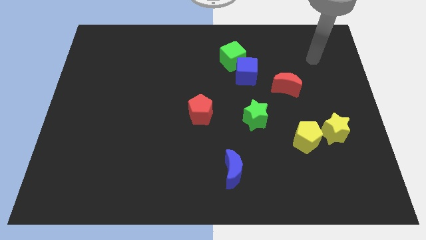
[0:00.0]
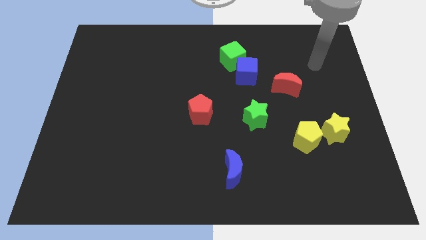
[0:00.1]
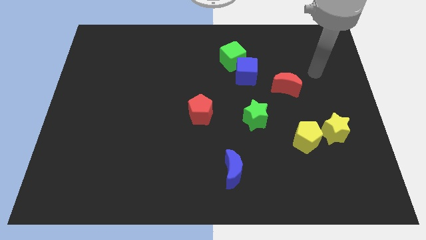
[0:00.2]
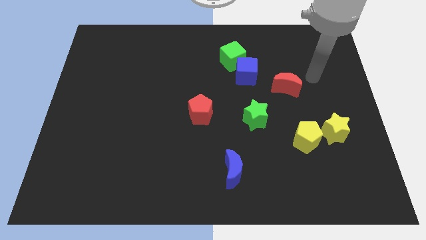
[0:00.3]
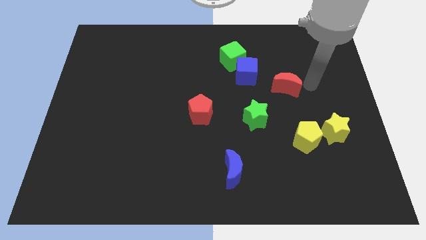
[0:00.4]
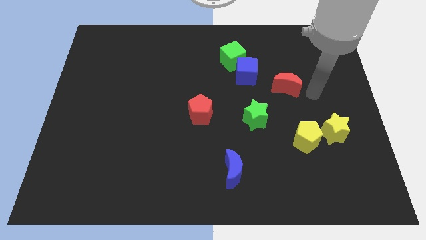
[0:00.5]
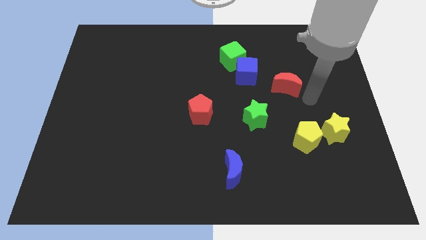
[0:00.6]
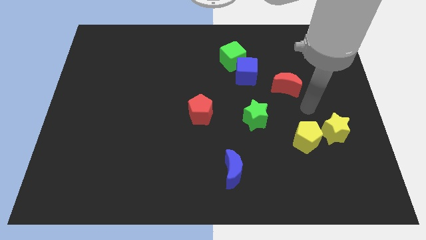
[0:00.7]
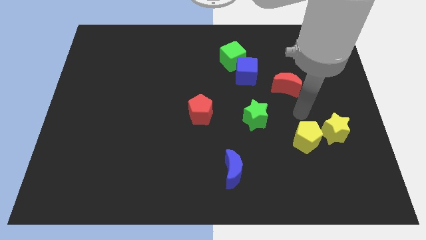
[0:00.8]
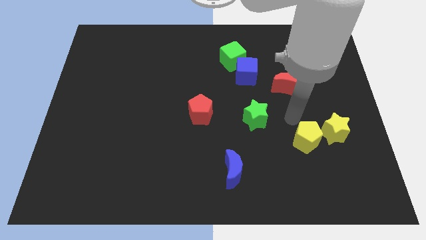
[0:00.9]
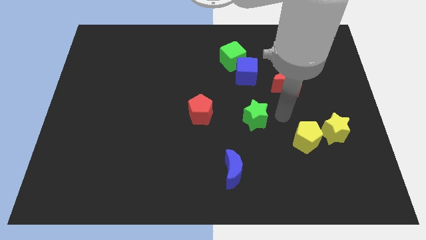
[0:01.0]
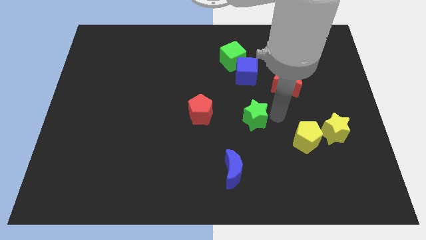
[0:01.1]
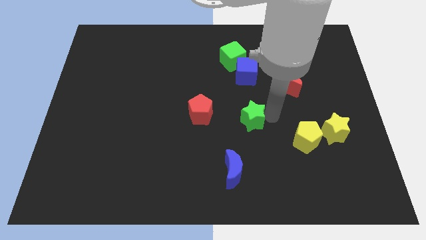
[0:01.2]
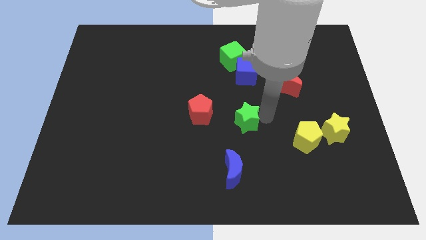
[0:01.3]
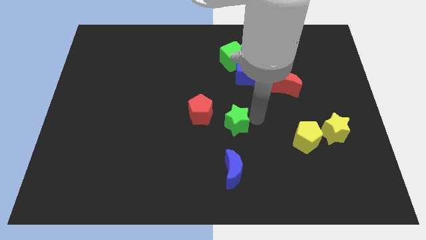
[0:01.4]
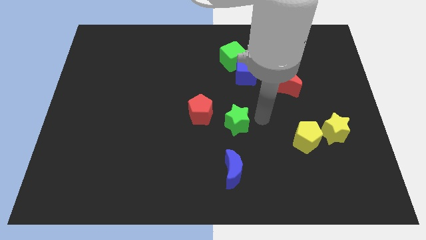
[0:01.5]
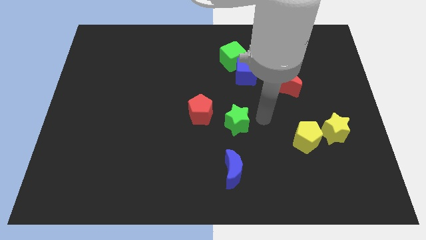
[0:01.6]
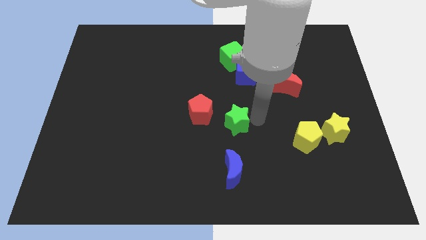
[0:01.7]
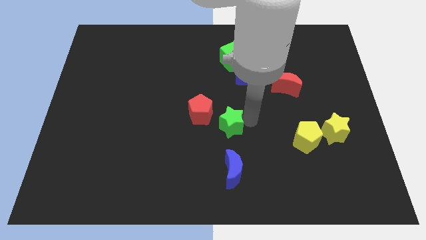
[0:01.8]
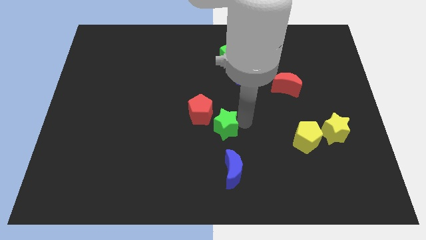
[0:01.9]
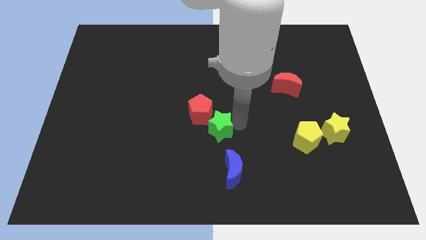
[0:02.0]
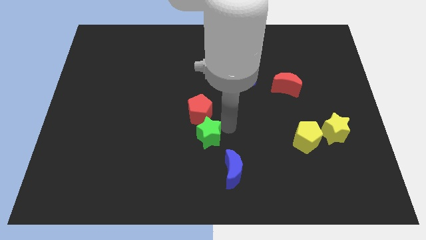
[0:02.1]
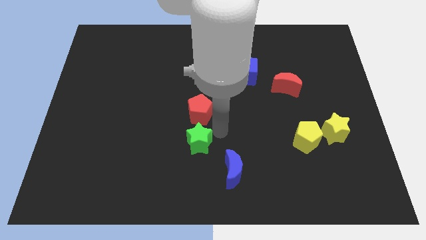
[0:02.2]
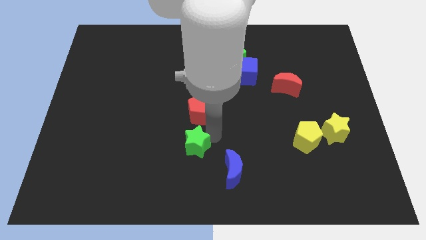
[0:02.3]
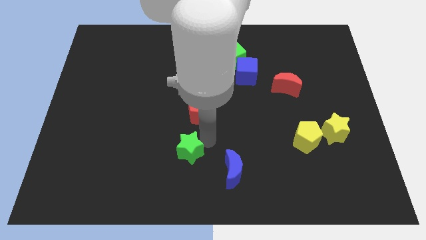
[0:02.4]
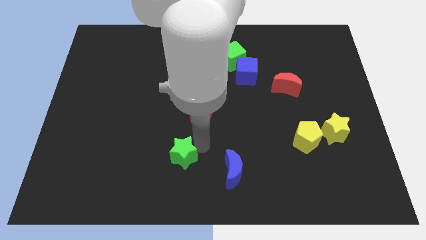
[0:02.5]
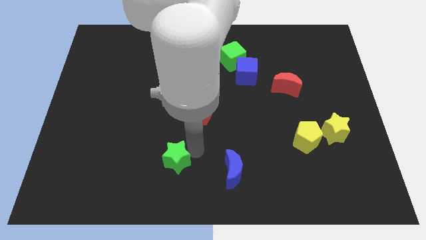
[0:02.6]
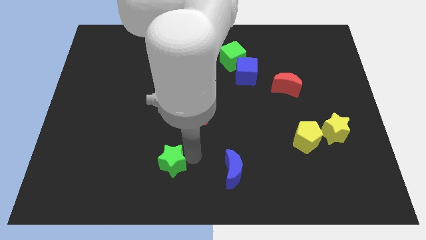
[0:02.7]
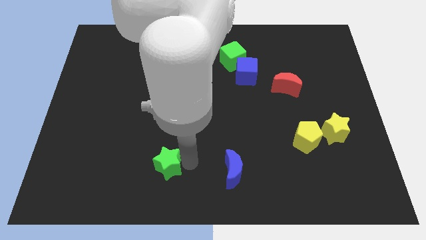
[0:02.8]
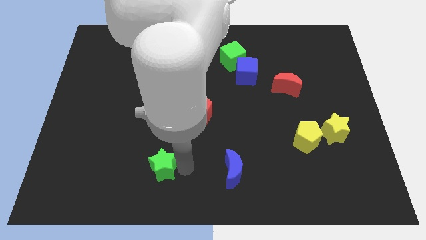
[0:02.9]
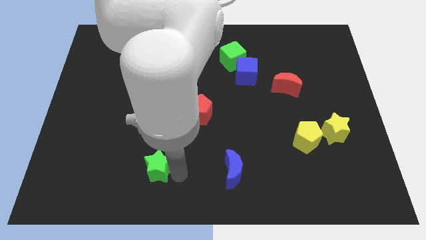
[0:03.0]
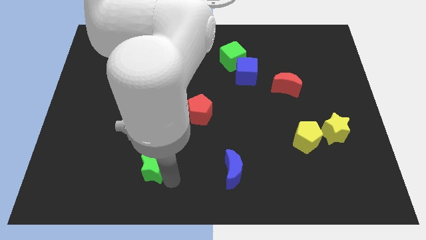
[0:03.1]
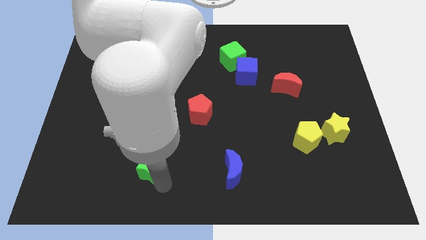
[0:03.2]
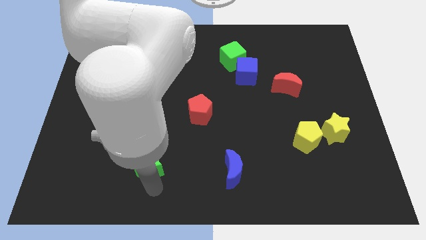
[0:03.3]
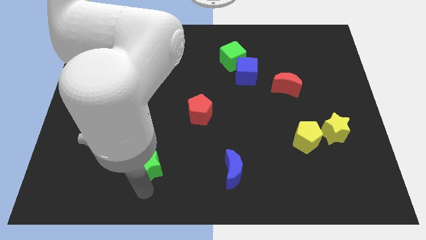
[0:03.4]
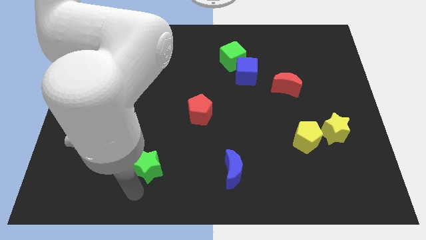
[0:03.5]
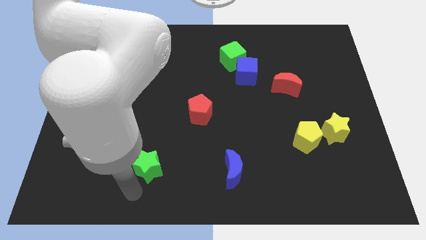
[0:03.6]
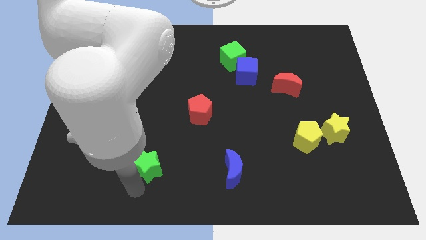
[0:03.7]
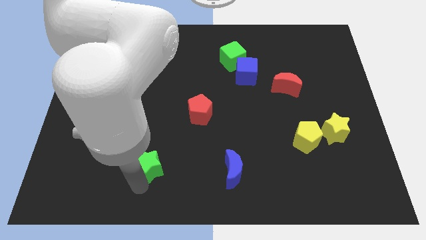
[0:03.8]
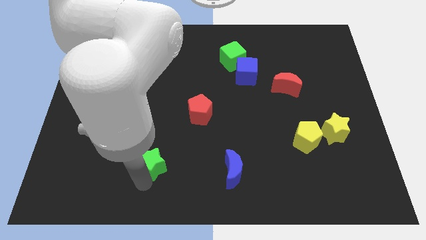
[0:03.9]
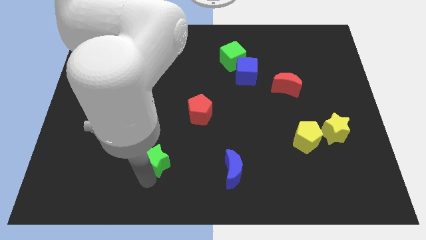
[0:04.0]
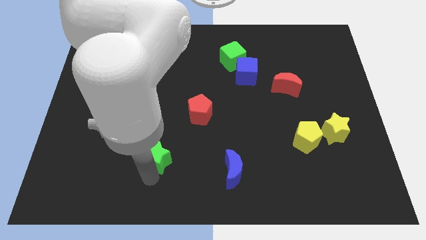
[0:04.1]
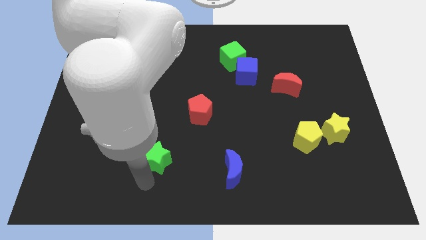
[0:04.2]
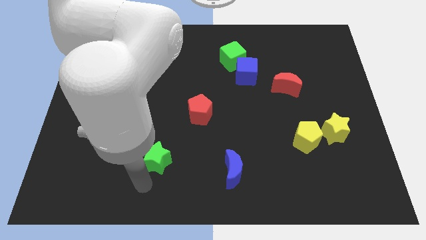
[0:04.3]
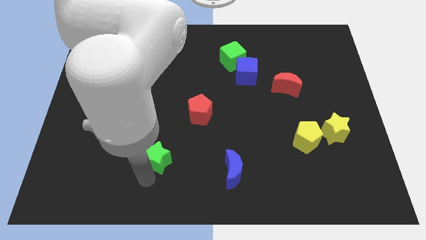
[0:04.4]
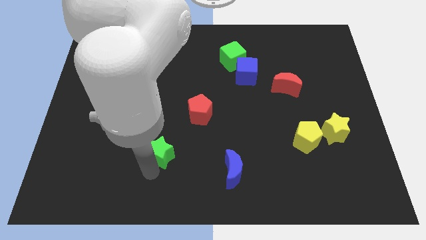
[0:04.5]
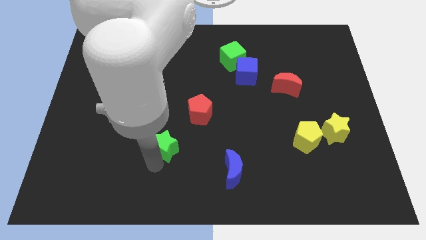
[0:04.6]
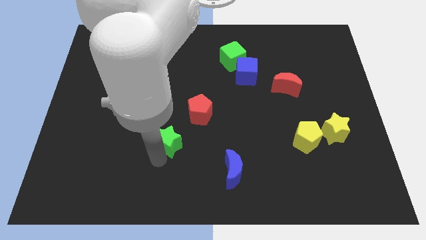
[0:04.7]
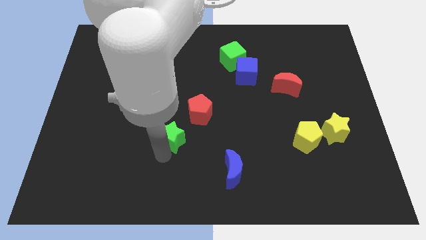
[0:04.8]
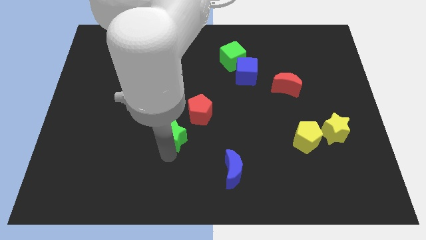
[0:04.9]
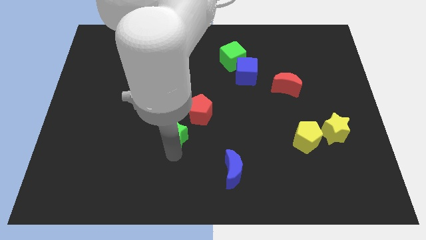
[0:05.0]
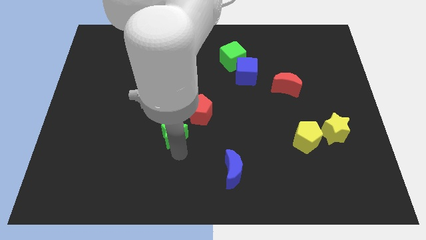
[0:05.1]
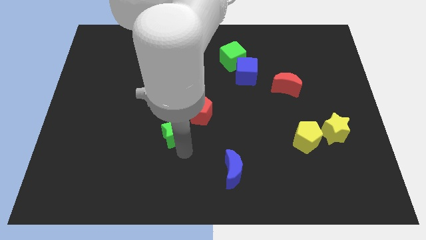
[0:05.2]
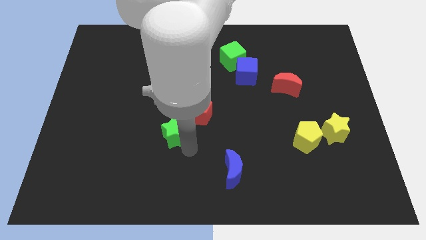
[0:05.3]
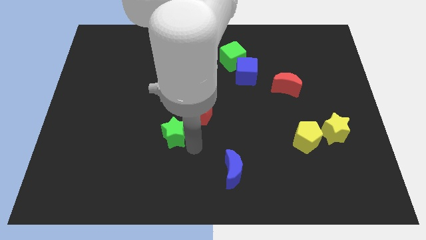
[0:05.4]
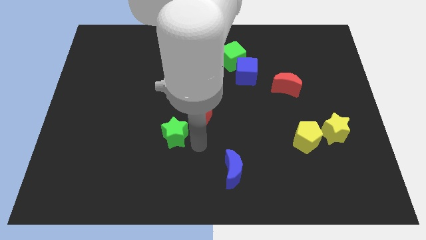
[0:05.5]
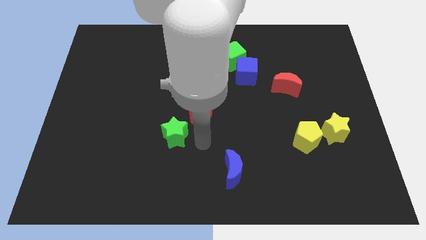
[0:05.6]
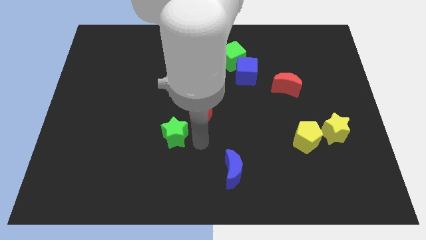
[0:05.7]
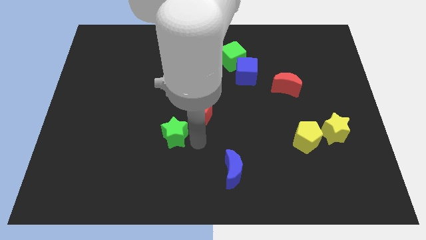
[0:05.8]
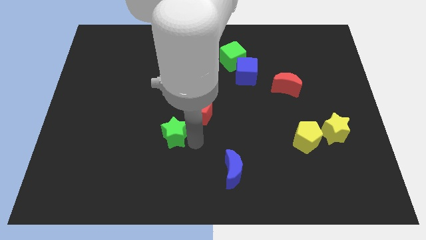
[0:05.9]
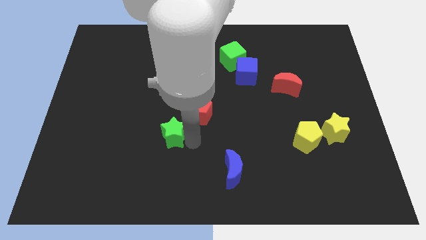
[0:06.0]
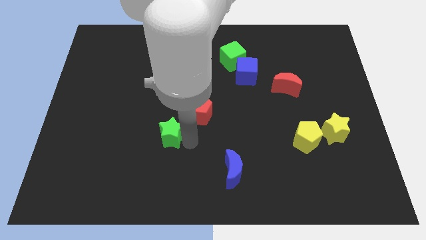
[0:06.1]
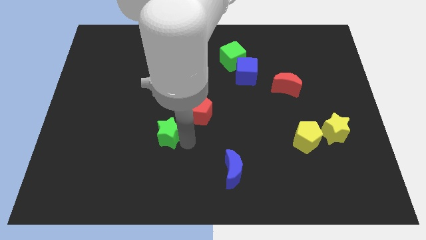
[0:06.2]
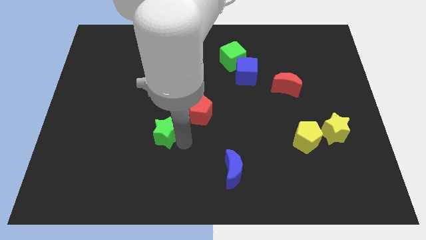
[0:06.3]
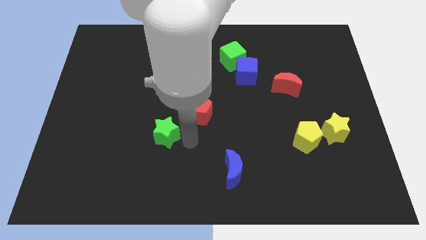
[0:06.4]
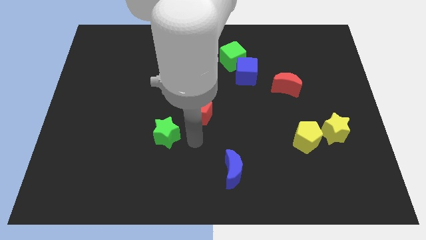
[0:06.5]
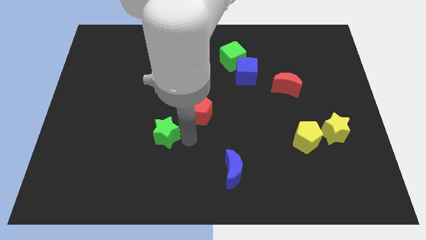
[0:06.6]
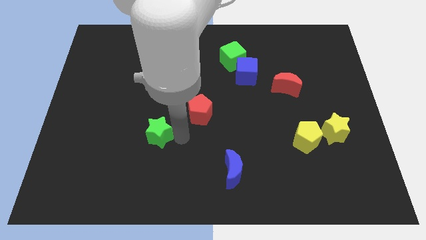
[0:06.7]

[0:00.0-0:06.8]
push the green star to the left

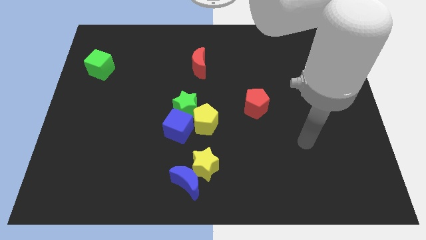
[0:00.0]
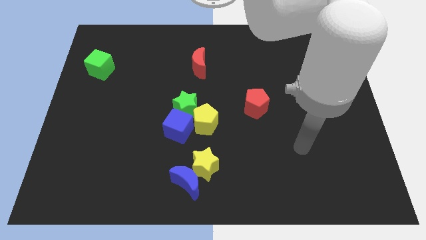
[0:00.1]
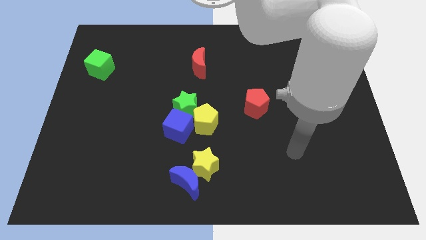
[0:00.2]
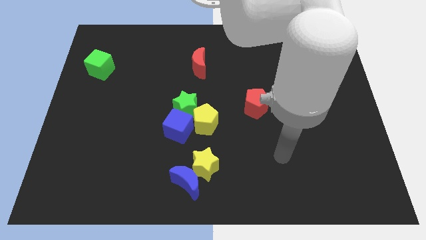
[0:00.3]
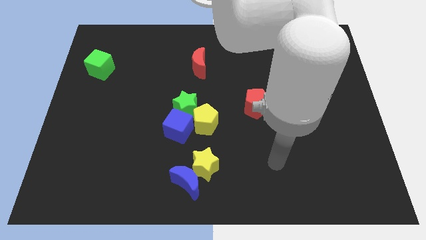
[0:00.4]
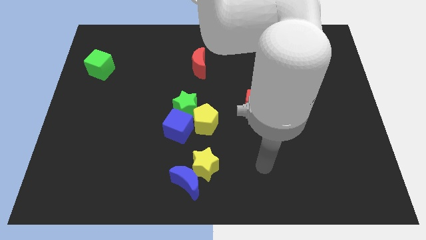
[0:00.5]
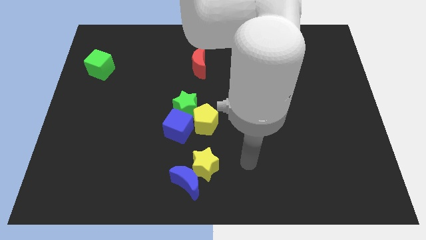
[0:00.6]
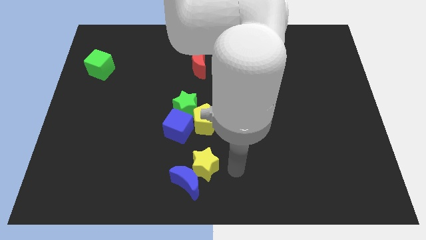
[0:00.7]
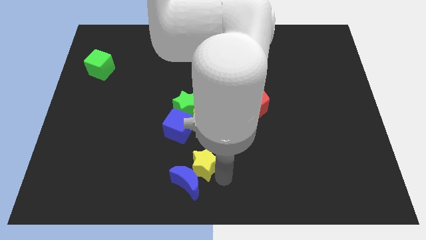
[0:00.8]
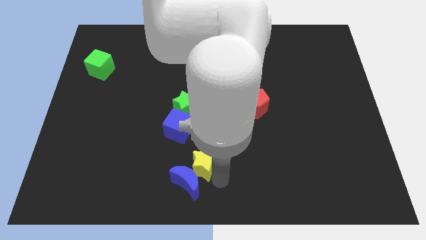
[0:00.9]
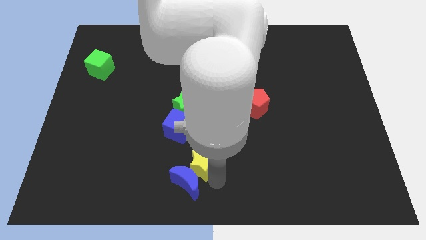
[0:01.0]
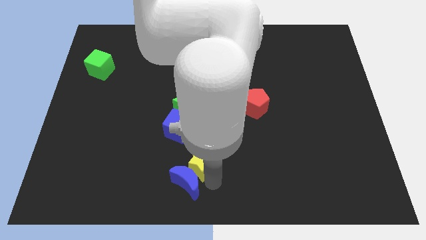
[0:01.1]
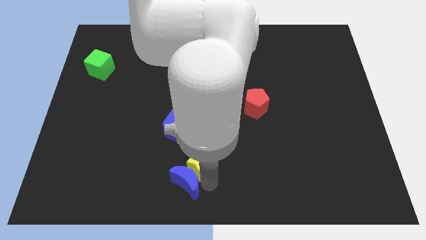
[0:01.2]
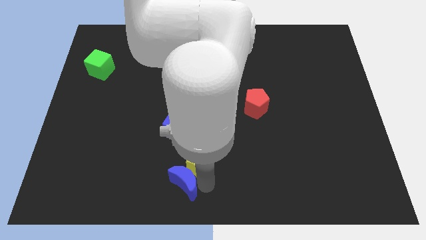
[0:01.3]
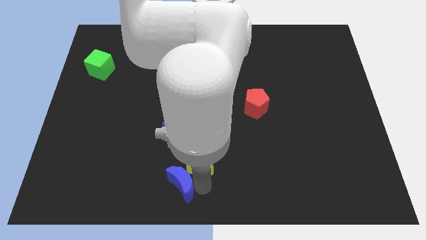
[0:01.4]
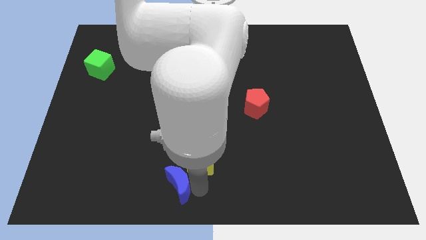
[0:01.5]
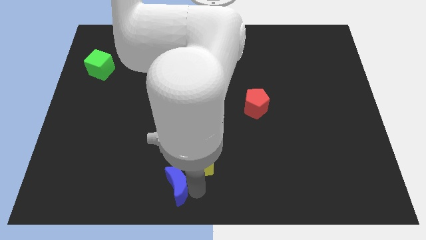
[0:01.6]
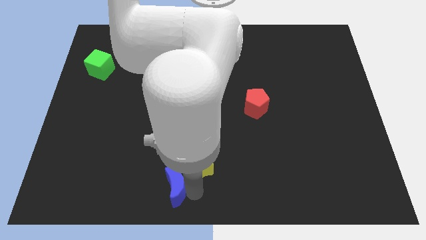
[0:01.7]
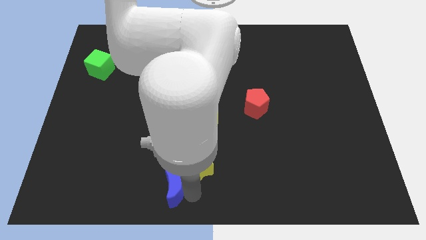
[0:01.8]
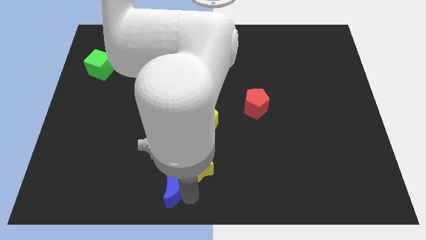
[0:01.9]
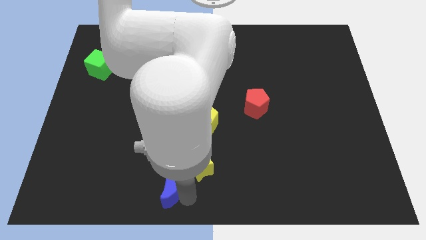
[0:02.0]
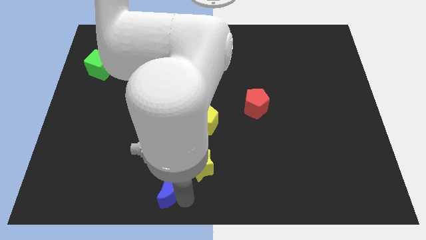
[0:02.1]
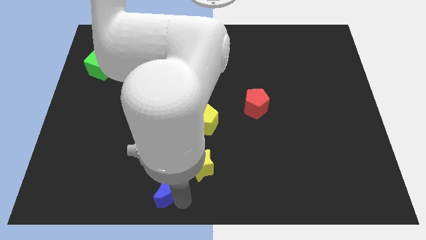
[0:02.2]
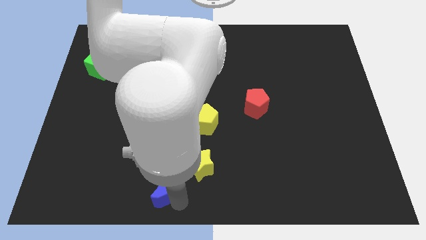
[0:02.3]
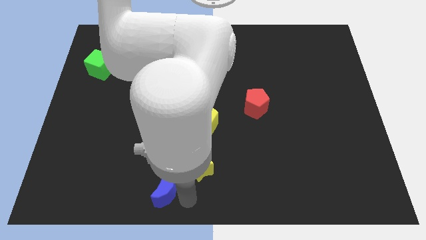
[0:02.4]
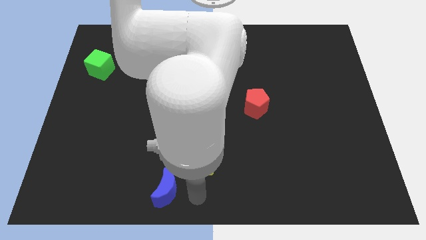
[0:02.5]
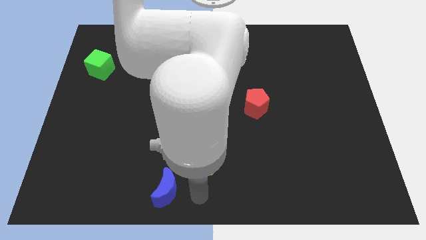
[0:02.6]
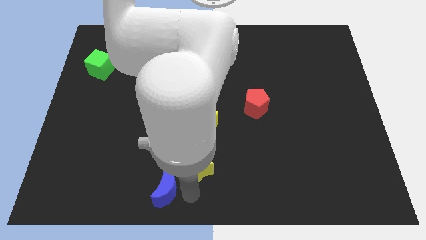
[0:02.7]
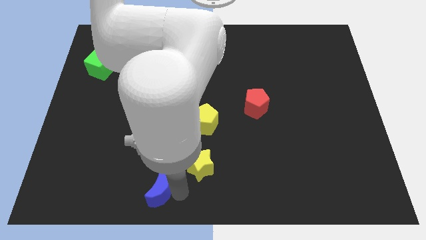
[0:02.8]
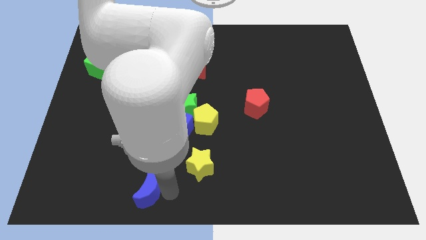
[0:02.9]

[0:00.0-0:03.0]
slide the blue moon to the left slightly
